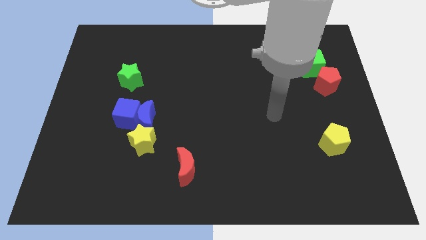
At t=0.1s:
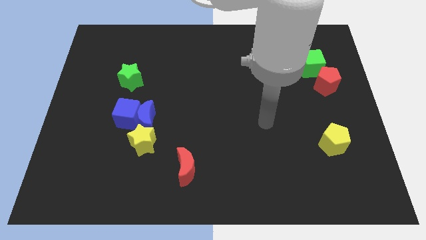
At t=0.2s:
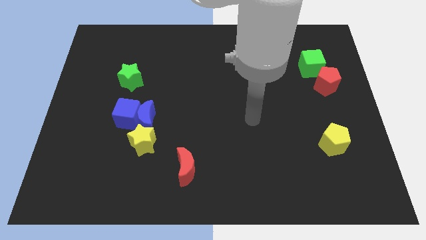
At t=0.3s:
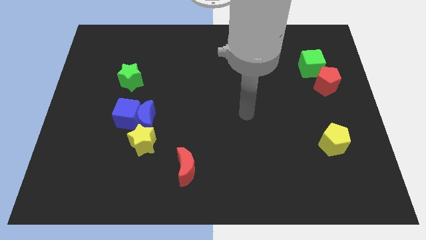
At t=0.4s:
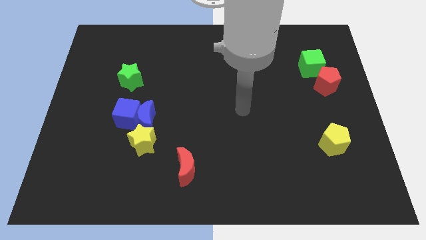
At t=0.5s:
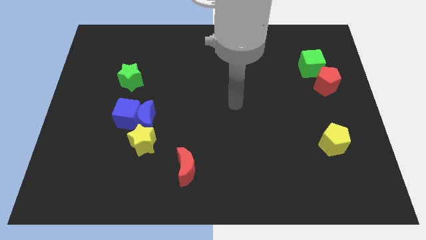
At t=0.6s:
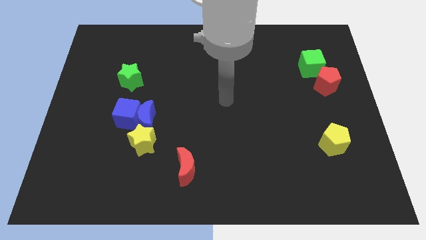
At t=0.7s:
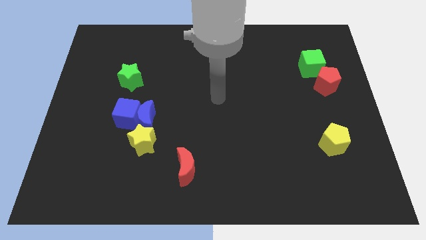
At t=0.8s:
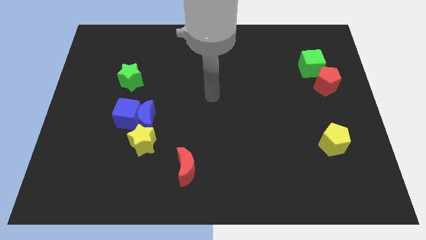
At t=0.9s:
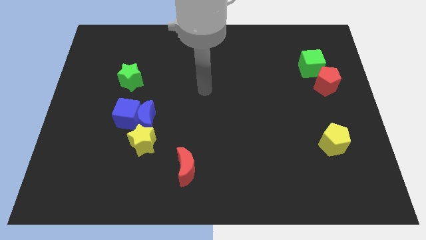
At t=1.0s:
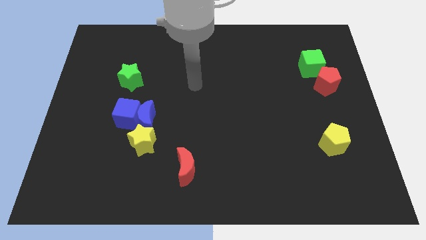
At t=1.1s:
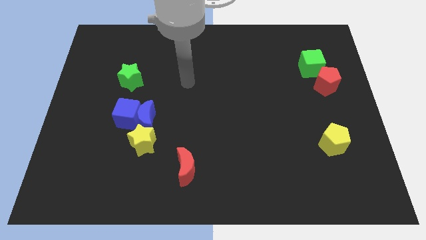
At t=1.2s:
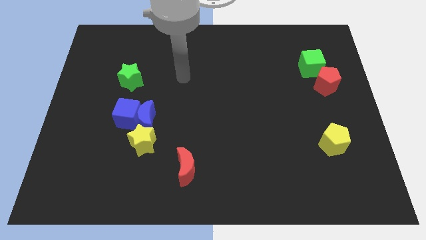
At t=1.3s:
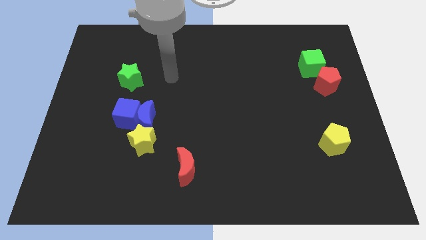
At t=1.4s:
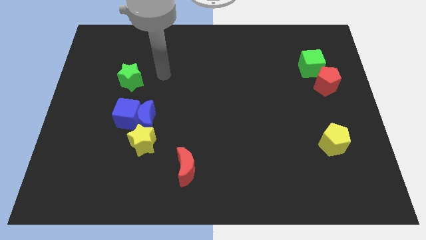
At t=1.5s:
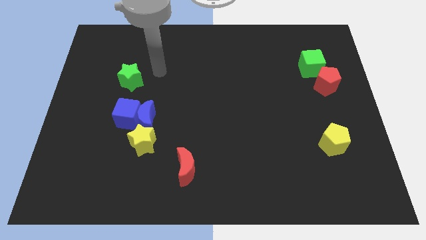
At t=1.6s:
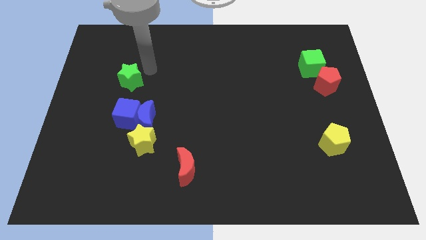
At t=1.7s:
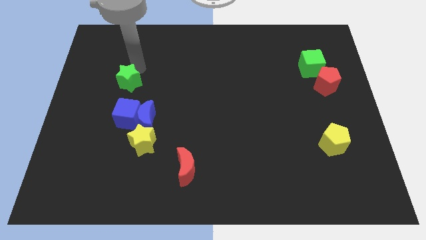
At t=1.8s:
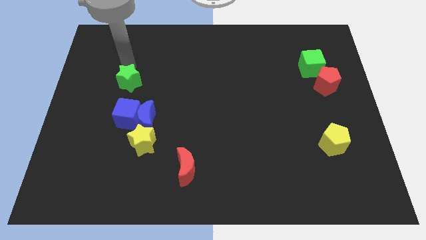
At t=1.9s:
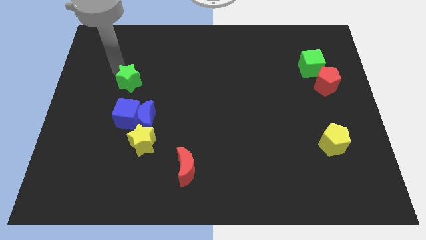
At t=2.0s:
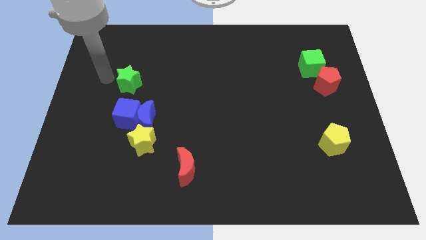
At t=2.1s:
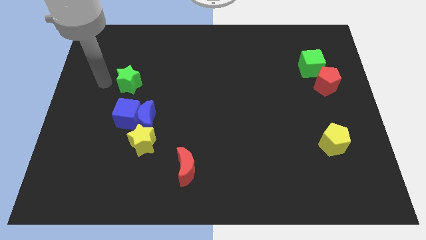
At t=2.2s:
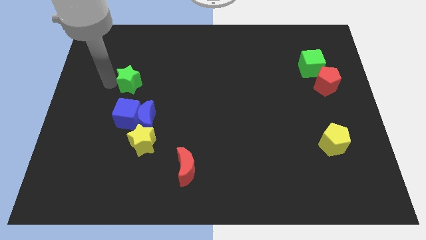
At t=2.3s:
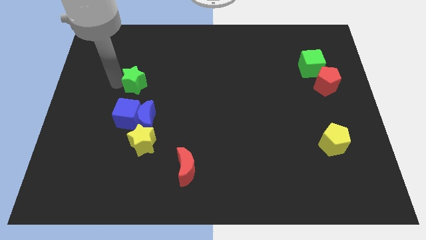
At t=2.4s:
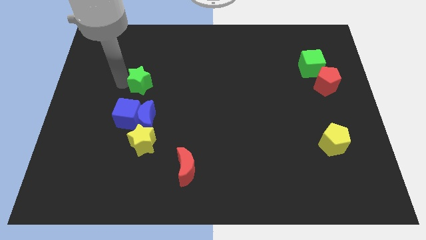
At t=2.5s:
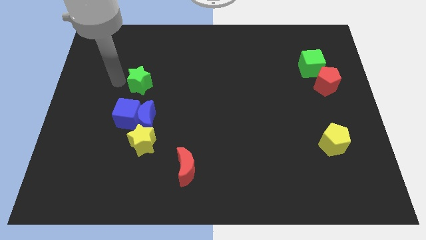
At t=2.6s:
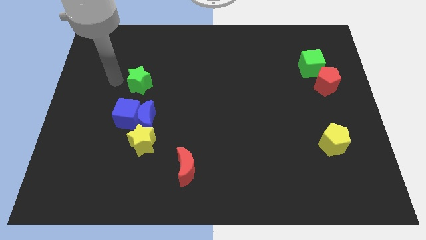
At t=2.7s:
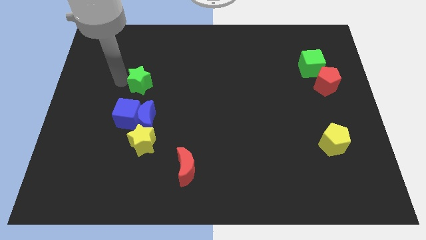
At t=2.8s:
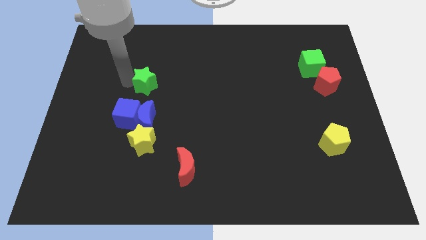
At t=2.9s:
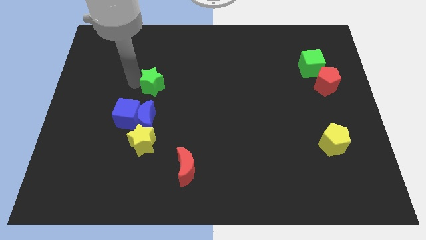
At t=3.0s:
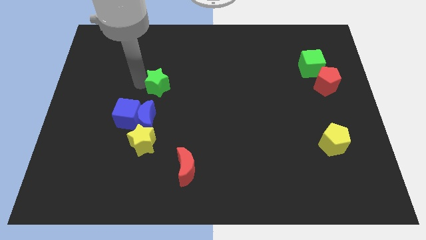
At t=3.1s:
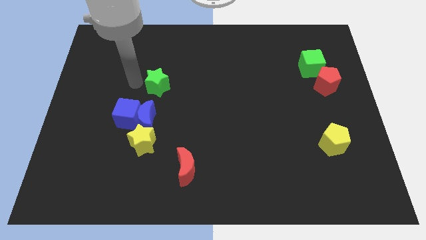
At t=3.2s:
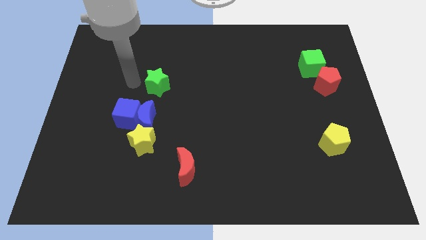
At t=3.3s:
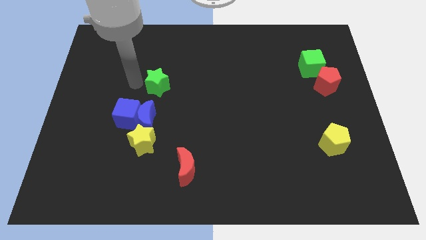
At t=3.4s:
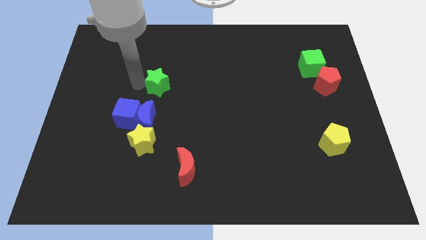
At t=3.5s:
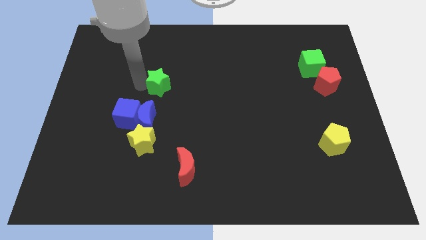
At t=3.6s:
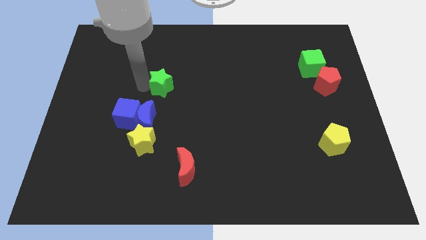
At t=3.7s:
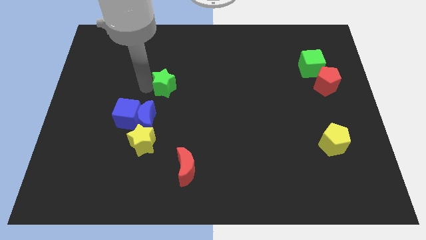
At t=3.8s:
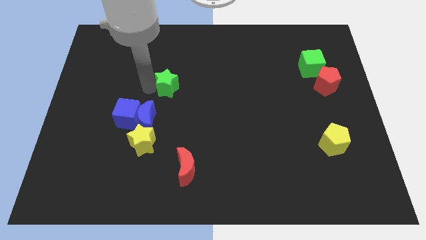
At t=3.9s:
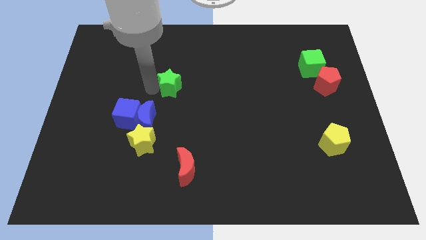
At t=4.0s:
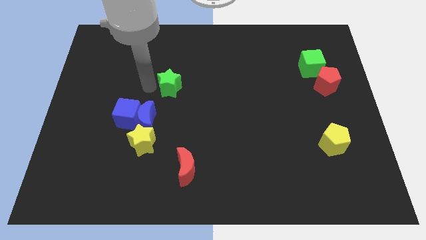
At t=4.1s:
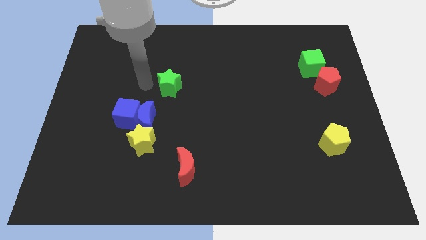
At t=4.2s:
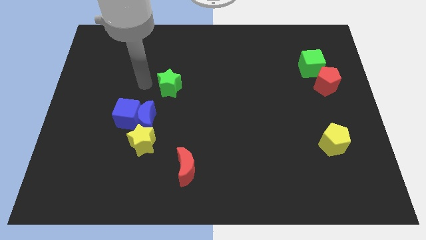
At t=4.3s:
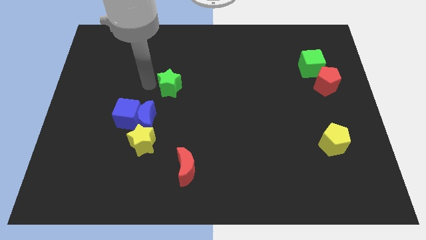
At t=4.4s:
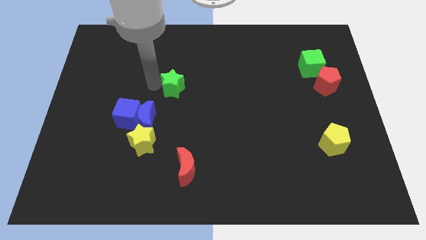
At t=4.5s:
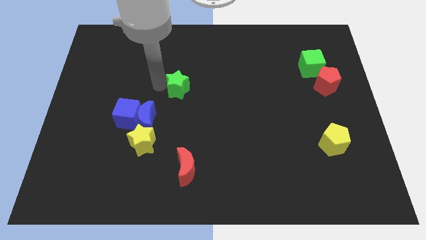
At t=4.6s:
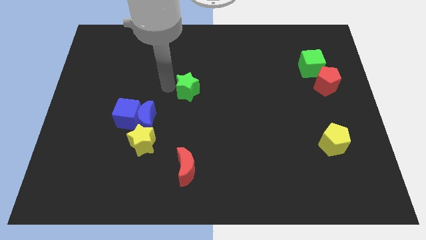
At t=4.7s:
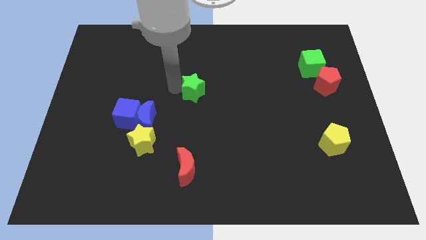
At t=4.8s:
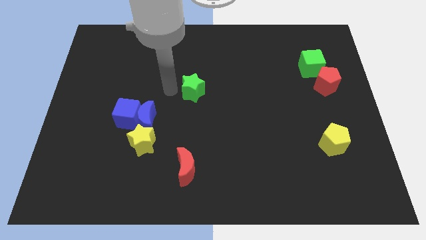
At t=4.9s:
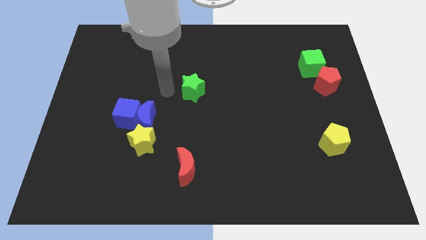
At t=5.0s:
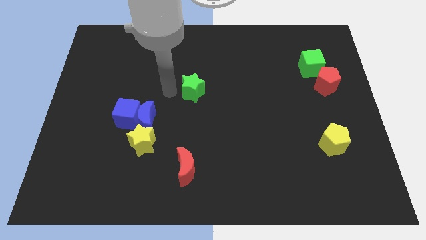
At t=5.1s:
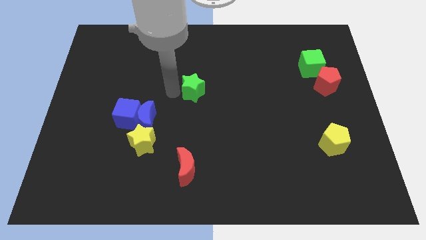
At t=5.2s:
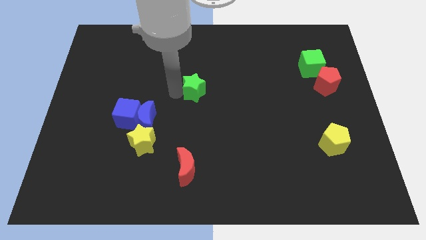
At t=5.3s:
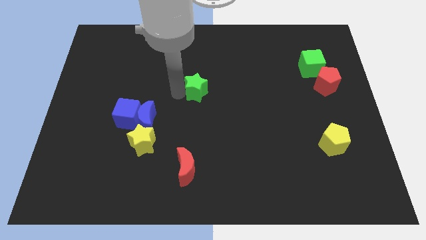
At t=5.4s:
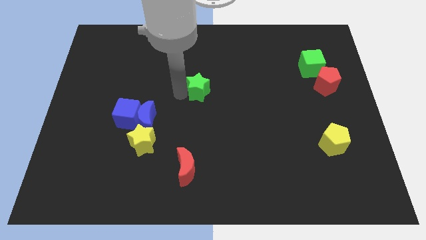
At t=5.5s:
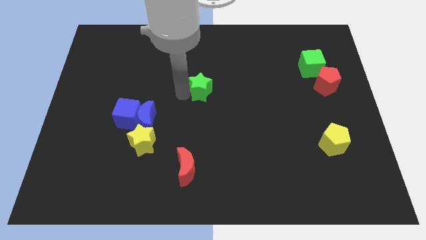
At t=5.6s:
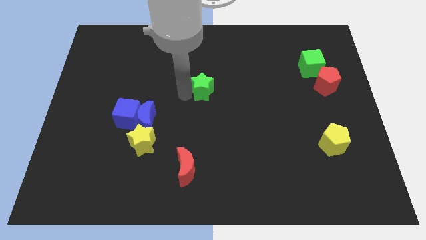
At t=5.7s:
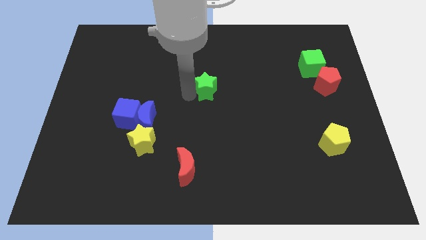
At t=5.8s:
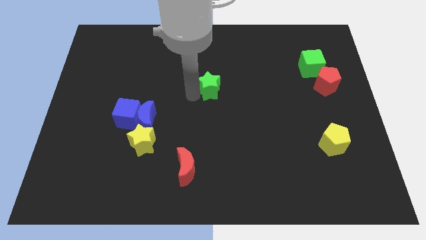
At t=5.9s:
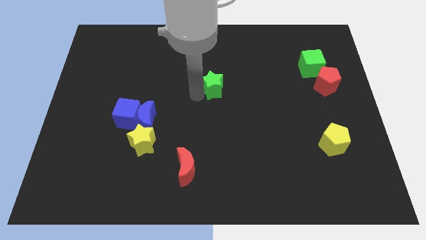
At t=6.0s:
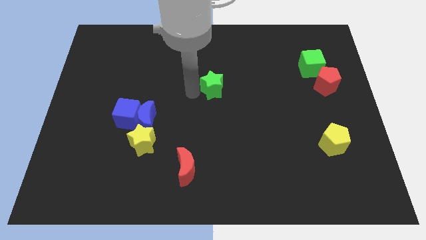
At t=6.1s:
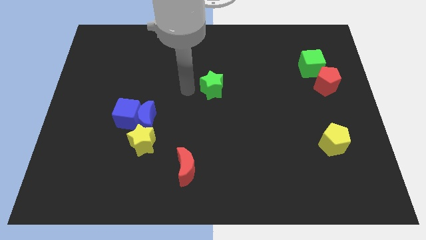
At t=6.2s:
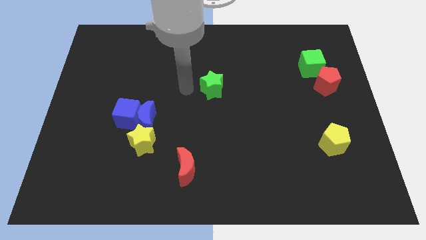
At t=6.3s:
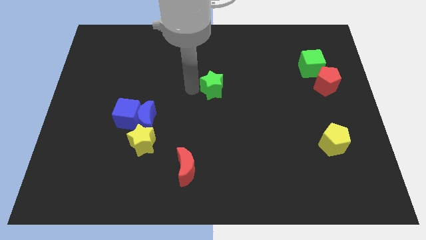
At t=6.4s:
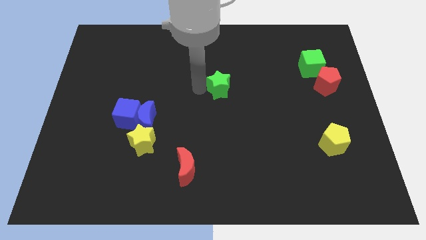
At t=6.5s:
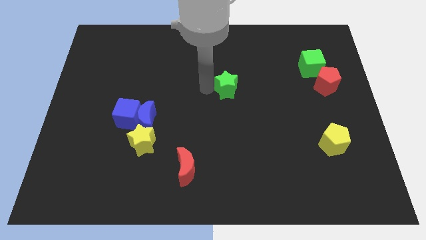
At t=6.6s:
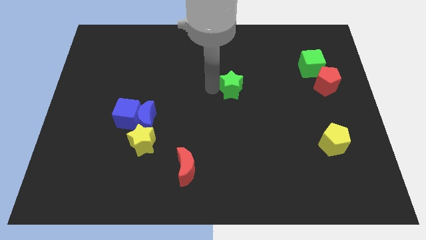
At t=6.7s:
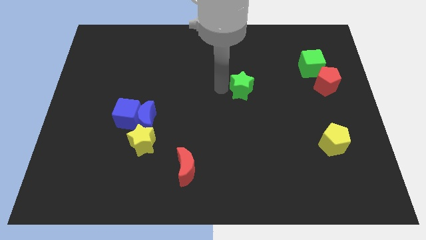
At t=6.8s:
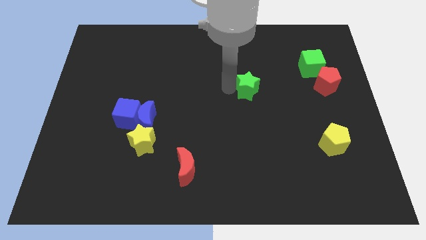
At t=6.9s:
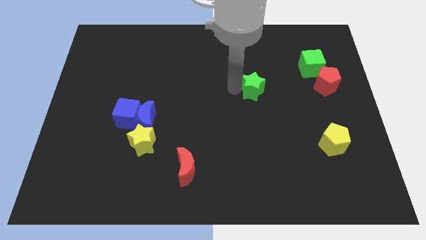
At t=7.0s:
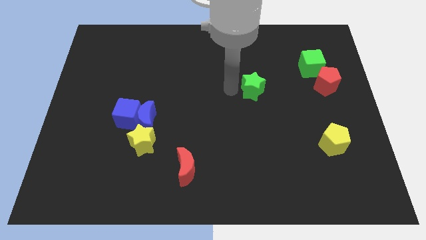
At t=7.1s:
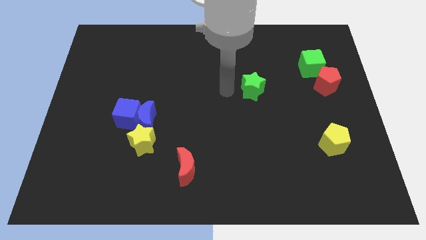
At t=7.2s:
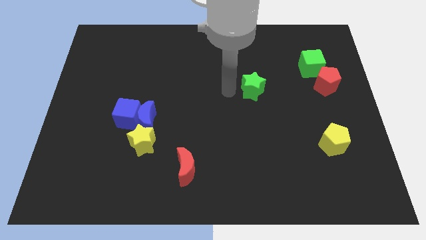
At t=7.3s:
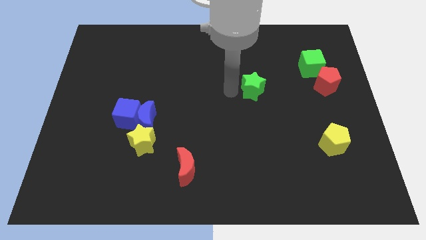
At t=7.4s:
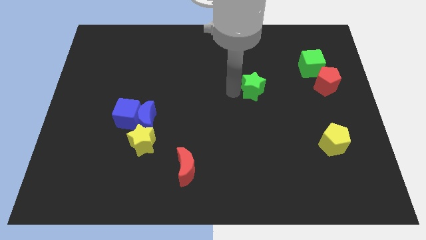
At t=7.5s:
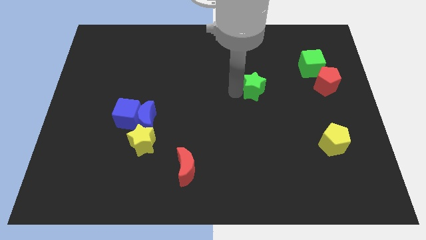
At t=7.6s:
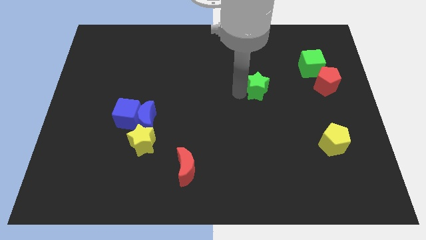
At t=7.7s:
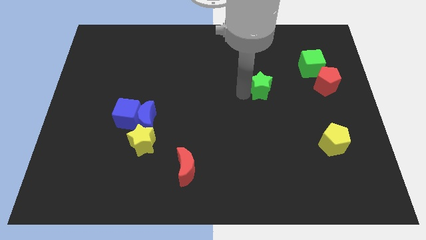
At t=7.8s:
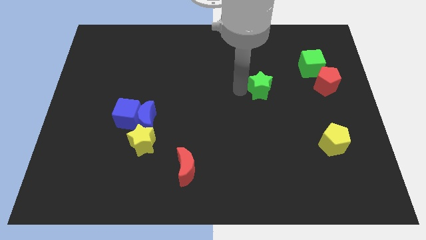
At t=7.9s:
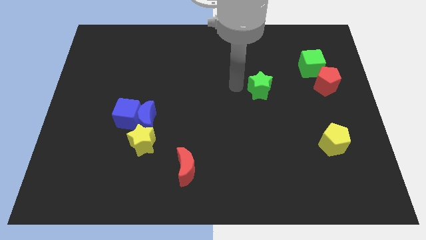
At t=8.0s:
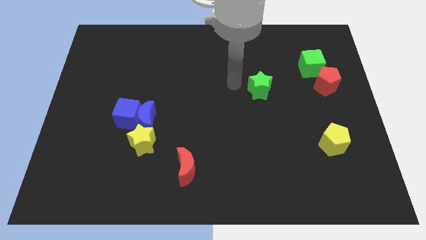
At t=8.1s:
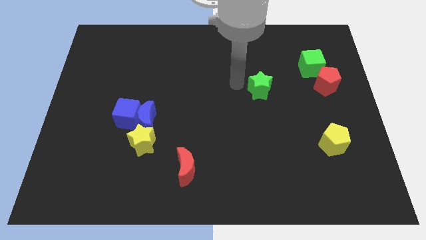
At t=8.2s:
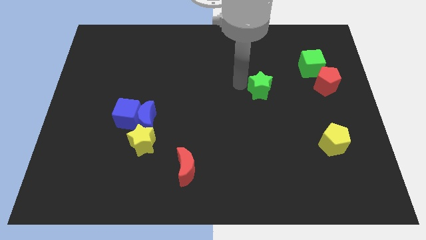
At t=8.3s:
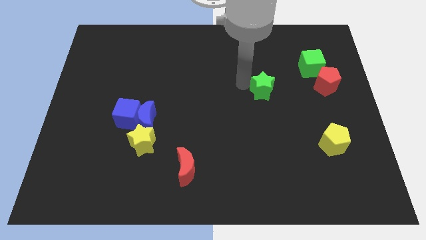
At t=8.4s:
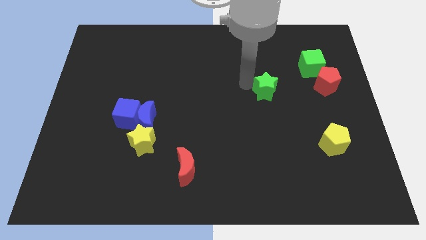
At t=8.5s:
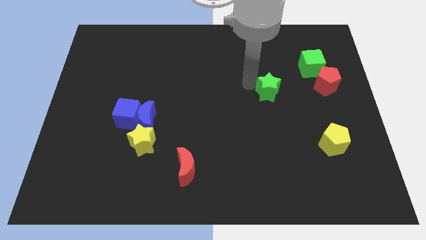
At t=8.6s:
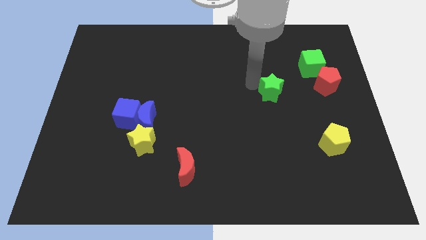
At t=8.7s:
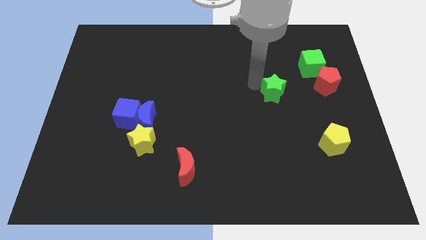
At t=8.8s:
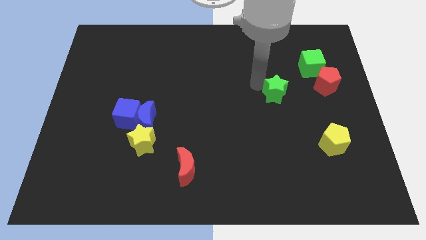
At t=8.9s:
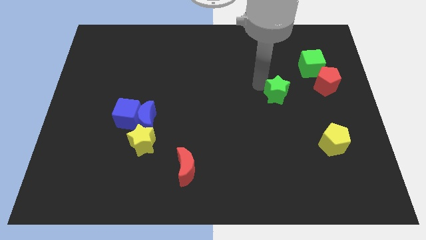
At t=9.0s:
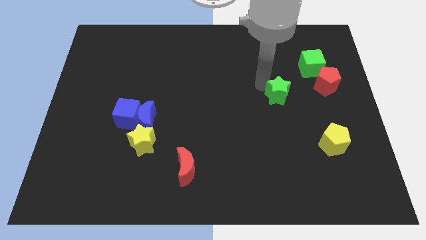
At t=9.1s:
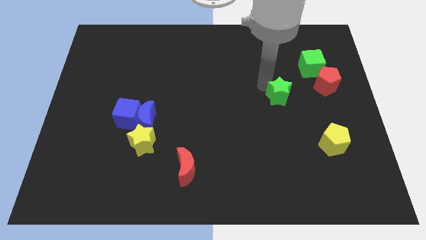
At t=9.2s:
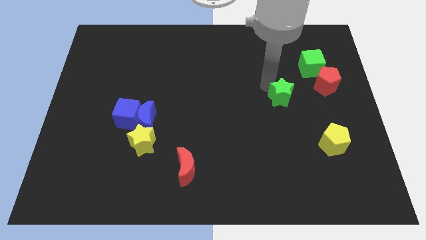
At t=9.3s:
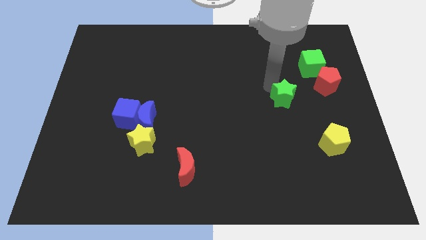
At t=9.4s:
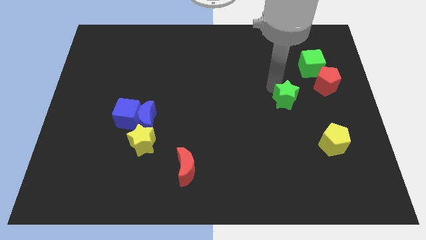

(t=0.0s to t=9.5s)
push the green star to the bottom left of the red pentagon
